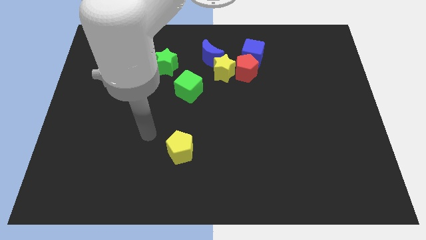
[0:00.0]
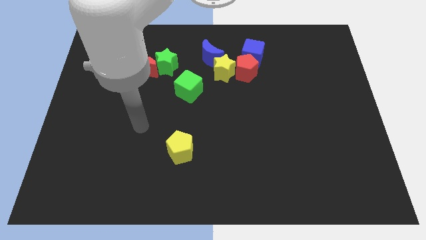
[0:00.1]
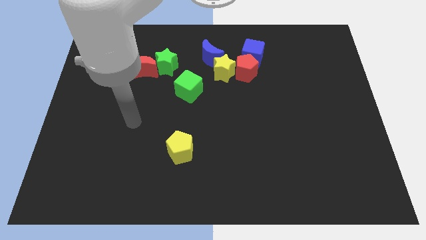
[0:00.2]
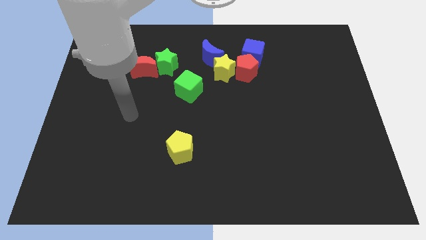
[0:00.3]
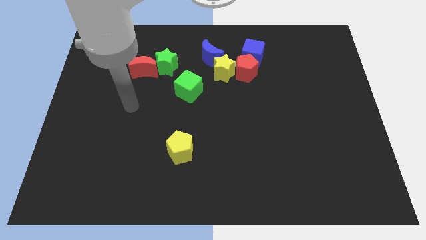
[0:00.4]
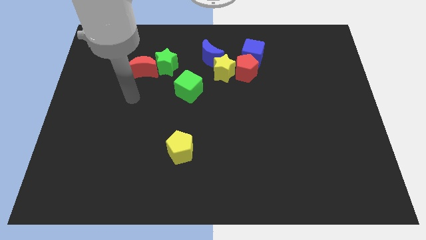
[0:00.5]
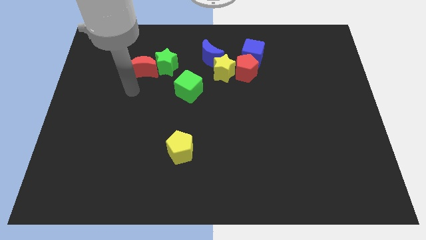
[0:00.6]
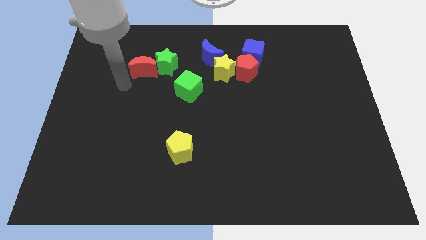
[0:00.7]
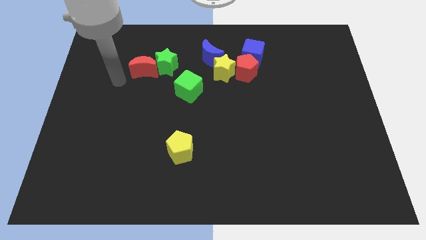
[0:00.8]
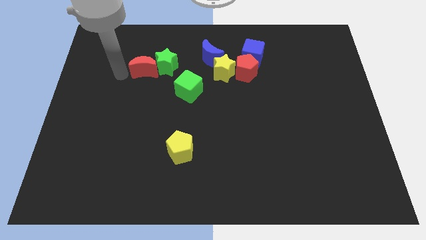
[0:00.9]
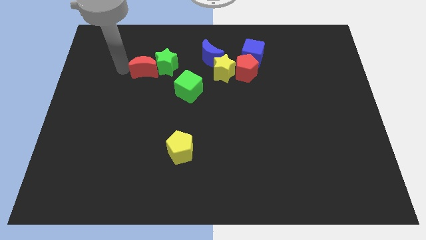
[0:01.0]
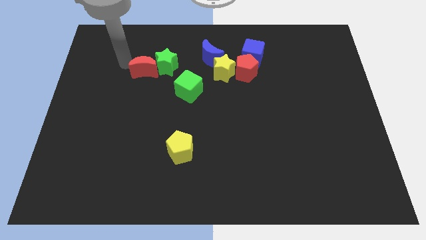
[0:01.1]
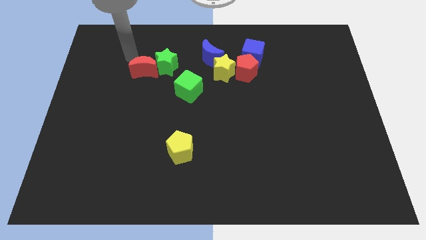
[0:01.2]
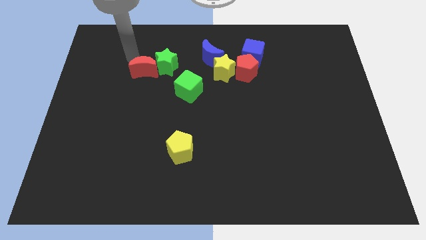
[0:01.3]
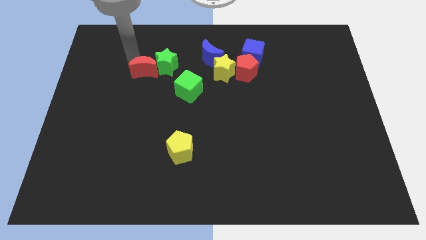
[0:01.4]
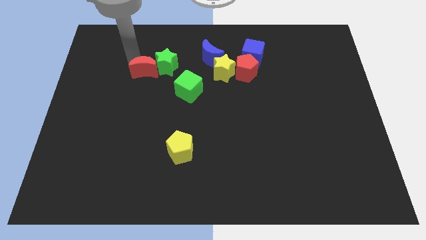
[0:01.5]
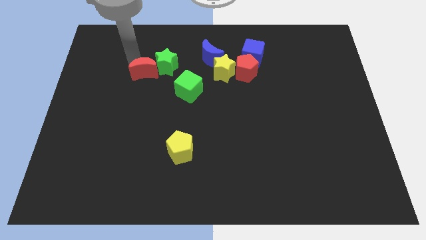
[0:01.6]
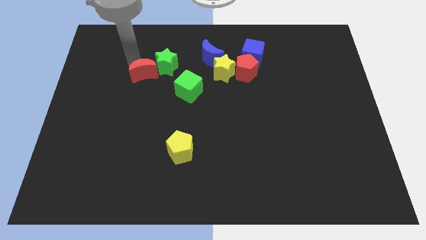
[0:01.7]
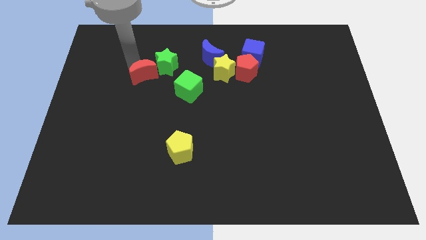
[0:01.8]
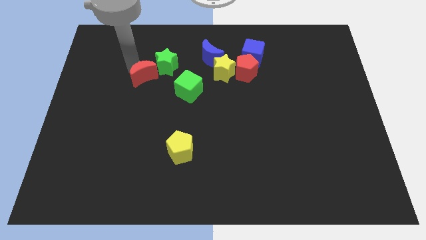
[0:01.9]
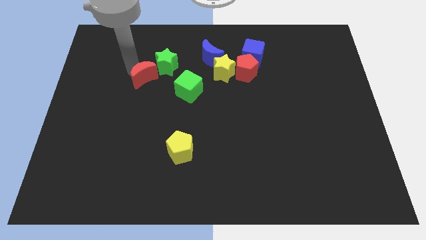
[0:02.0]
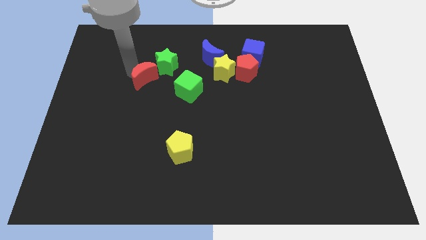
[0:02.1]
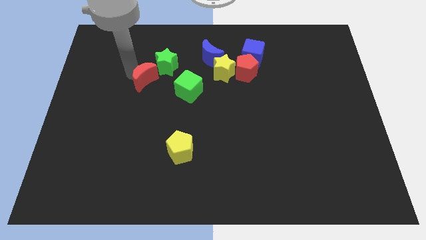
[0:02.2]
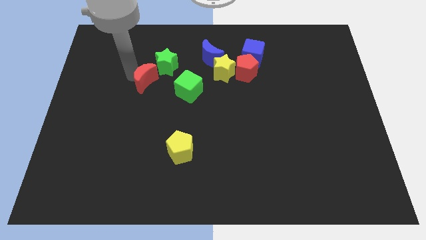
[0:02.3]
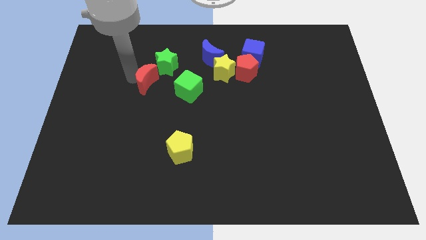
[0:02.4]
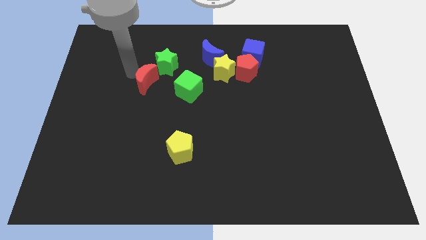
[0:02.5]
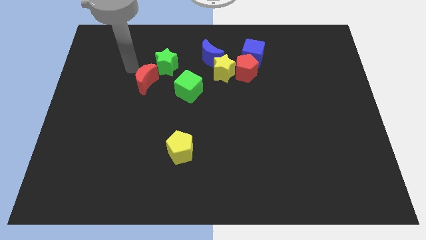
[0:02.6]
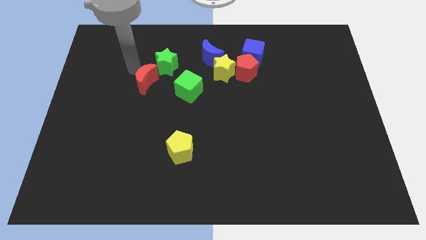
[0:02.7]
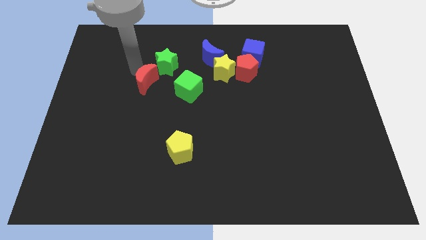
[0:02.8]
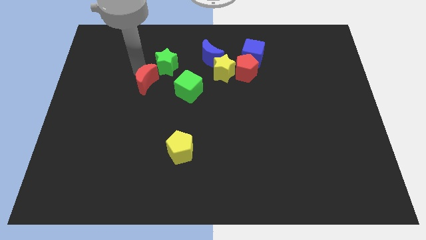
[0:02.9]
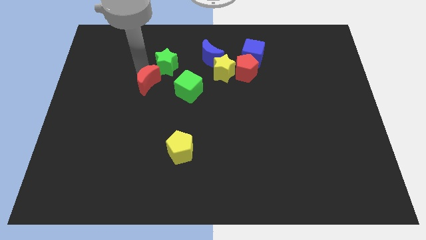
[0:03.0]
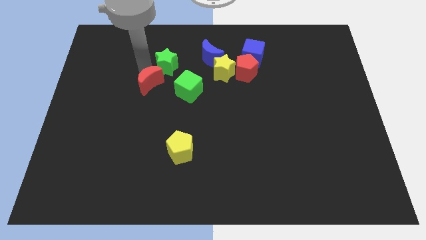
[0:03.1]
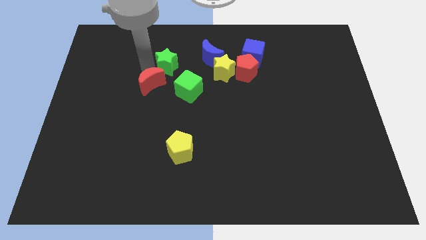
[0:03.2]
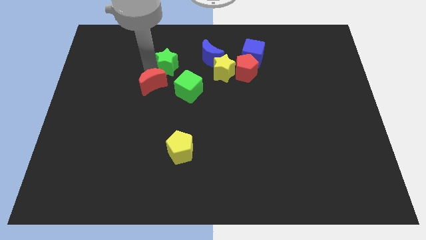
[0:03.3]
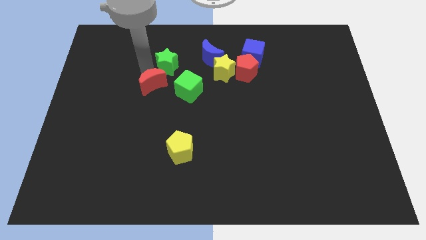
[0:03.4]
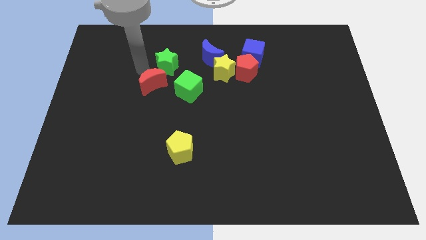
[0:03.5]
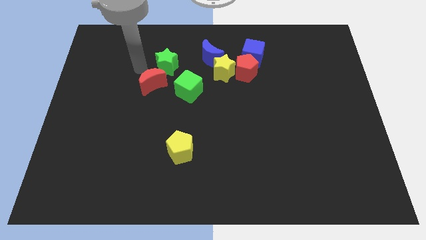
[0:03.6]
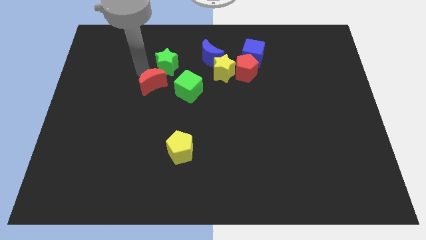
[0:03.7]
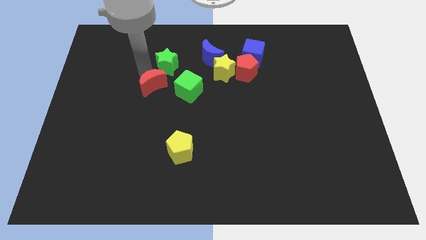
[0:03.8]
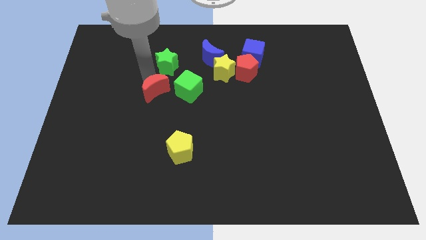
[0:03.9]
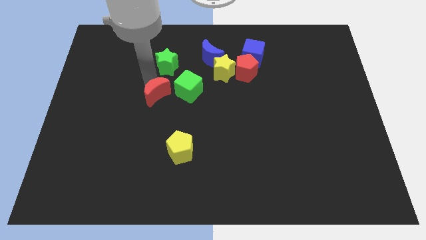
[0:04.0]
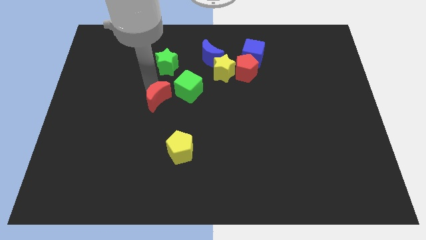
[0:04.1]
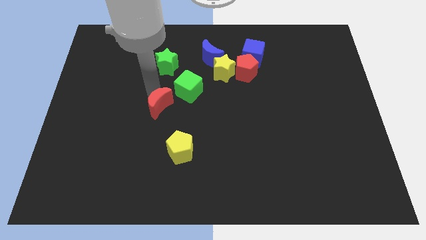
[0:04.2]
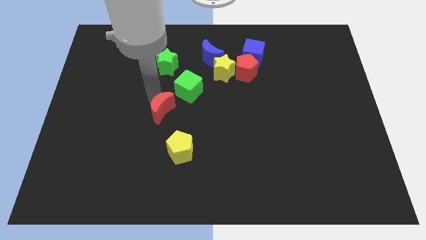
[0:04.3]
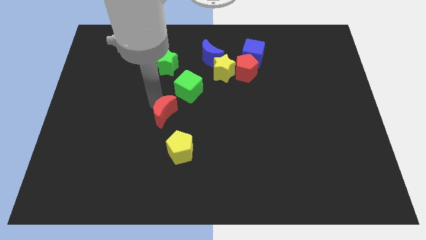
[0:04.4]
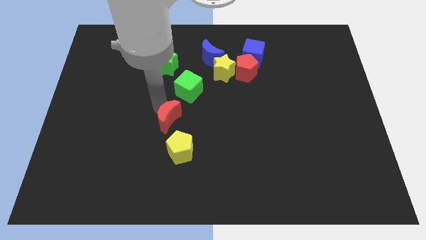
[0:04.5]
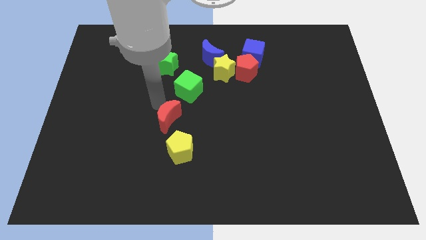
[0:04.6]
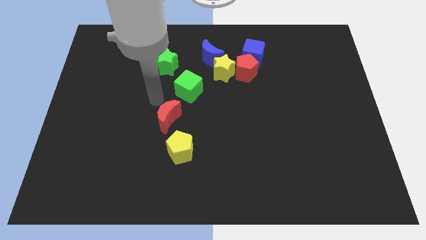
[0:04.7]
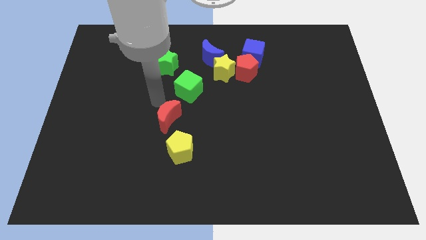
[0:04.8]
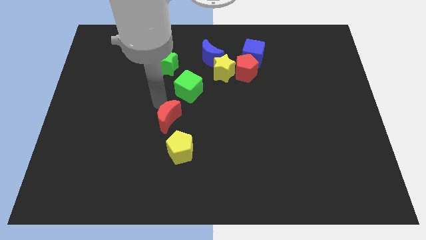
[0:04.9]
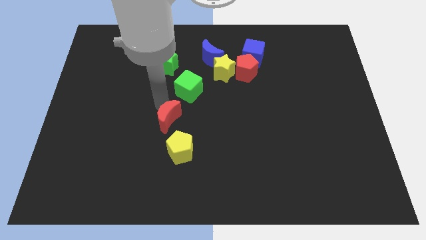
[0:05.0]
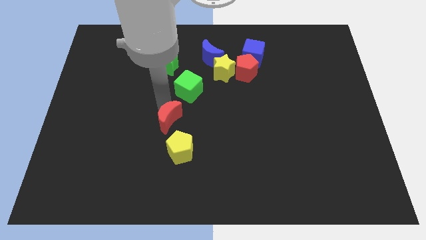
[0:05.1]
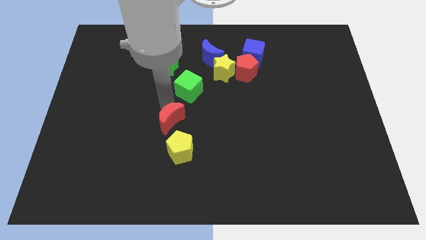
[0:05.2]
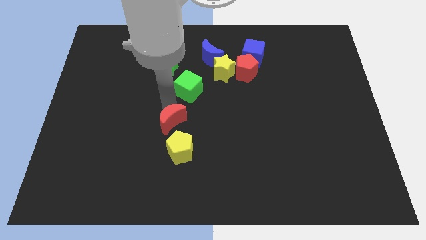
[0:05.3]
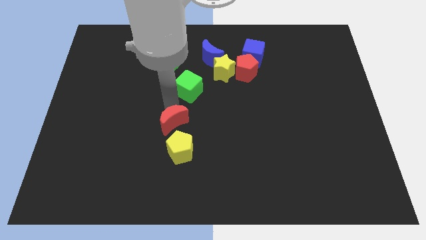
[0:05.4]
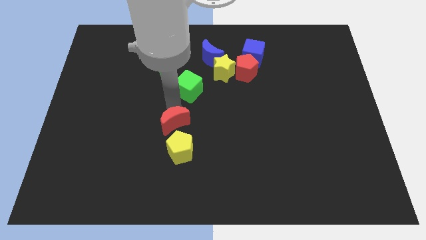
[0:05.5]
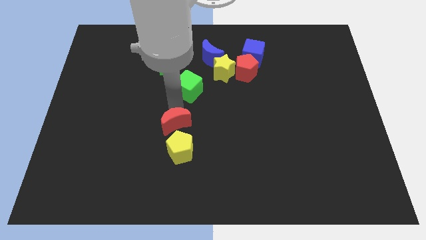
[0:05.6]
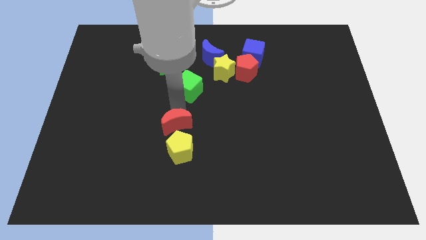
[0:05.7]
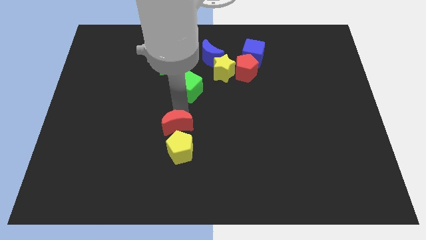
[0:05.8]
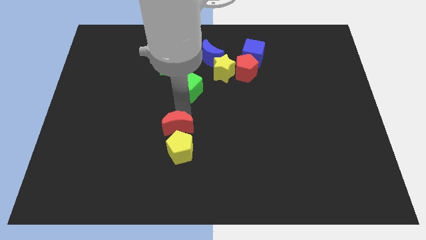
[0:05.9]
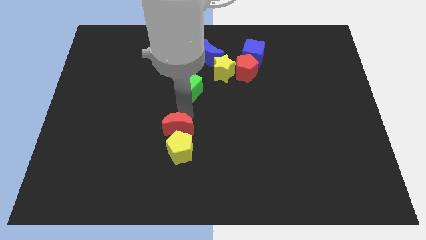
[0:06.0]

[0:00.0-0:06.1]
put the red moon next to the yellow pentagon

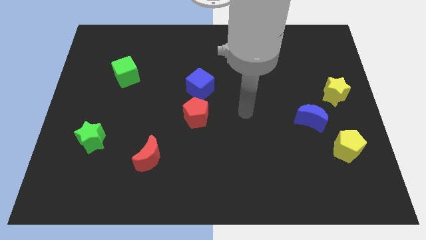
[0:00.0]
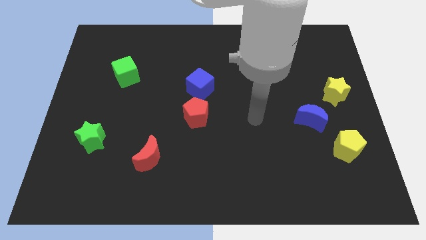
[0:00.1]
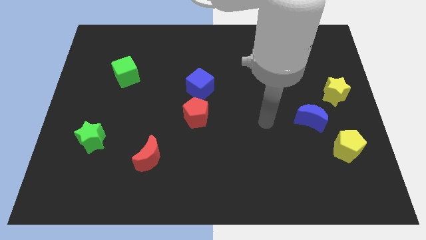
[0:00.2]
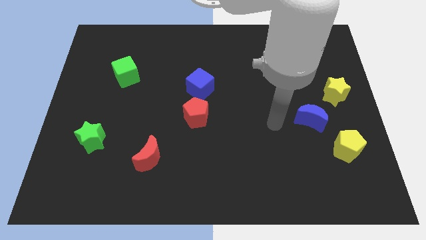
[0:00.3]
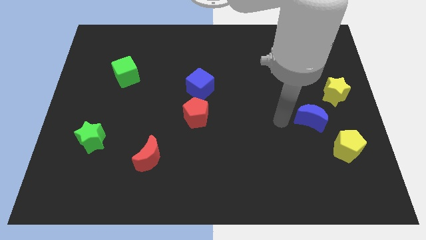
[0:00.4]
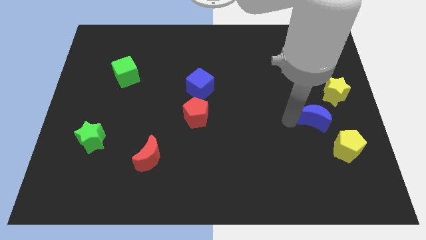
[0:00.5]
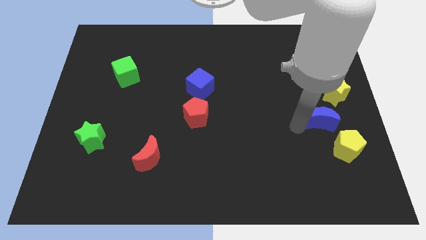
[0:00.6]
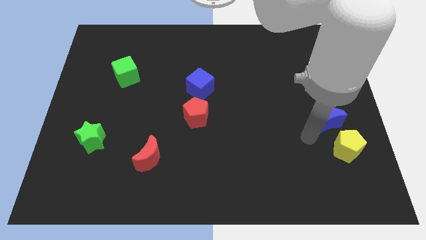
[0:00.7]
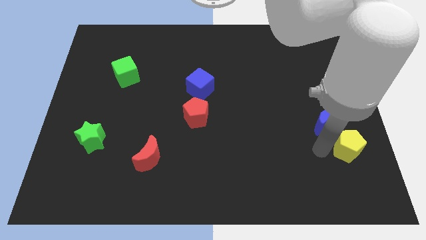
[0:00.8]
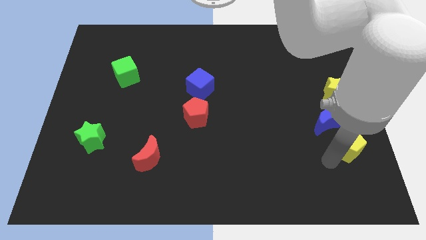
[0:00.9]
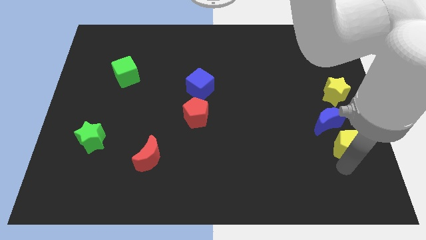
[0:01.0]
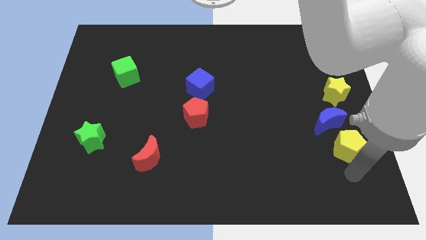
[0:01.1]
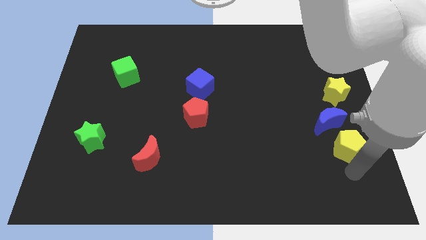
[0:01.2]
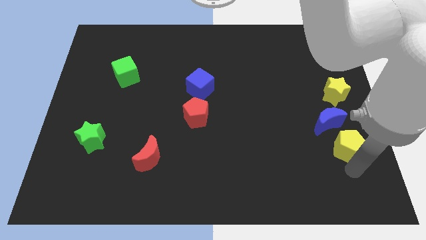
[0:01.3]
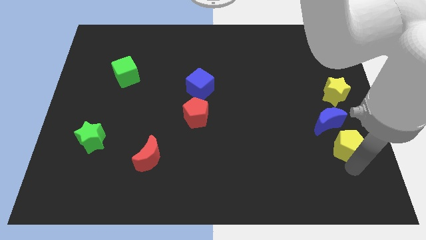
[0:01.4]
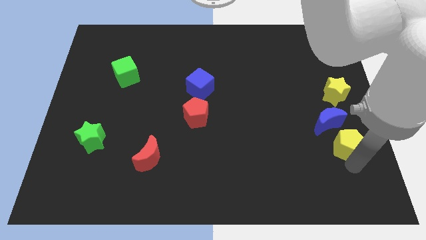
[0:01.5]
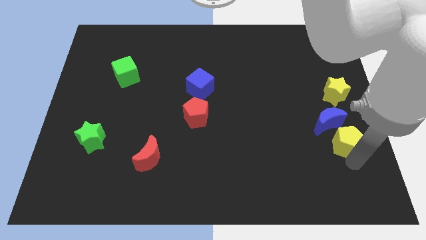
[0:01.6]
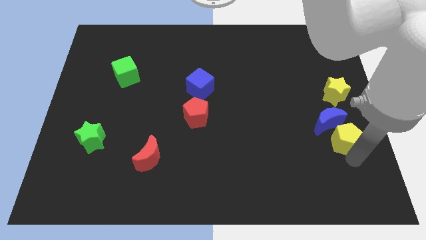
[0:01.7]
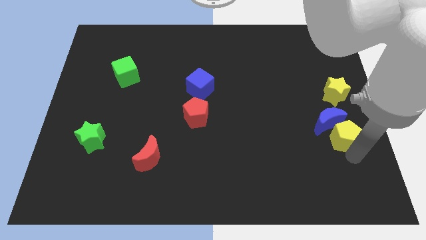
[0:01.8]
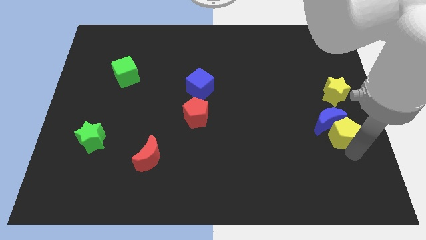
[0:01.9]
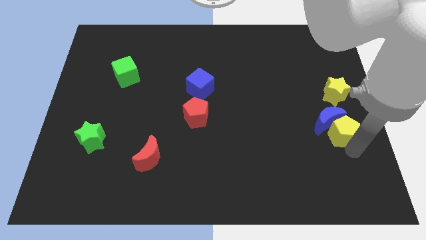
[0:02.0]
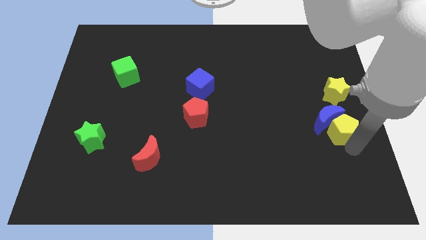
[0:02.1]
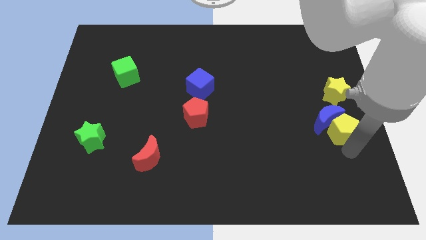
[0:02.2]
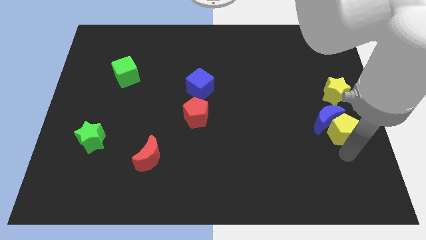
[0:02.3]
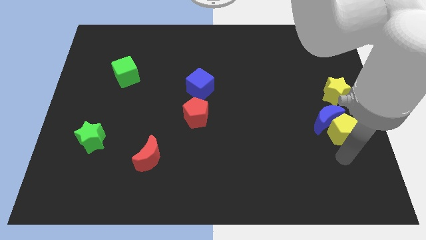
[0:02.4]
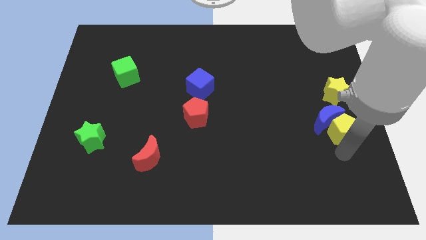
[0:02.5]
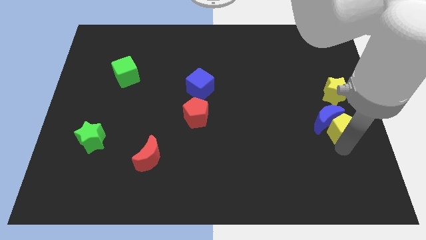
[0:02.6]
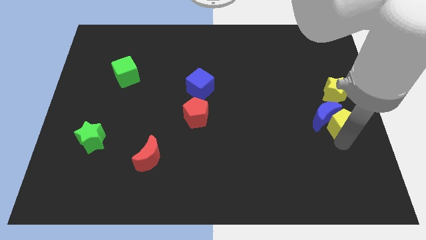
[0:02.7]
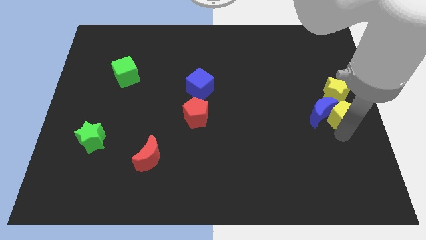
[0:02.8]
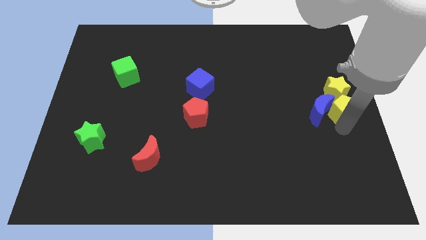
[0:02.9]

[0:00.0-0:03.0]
push the yellow pentagon next to the yellow star
